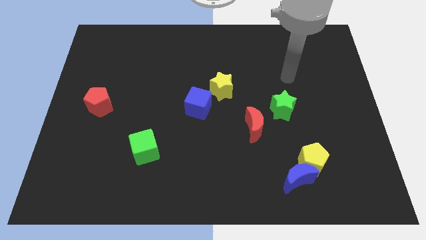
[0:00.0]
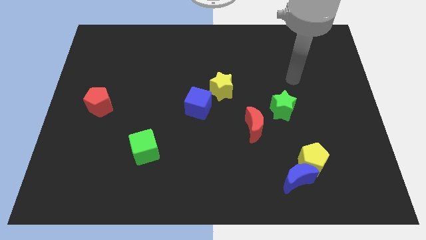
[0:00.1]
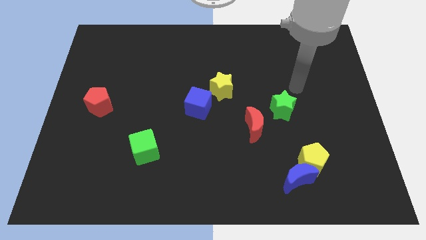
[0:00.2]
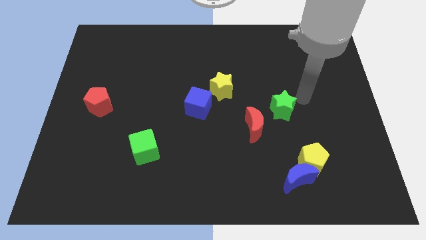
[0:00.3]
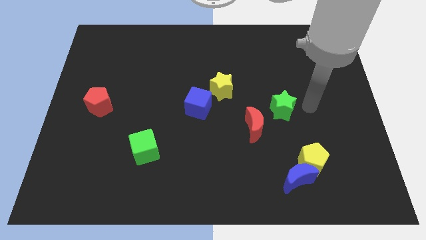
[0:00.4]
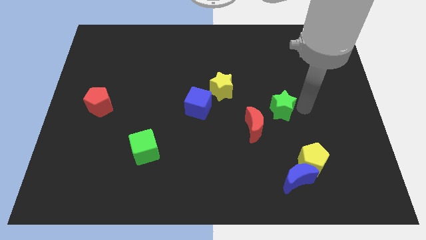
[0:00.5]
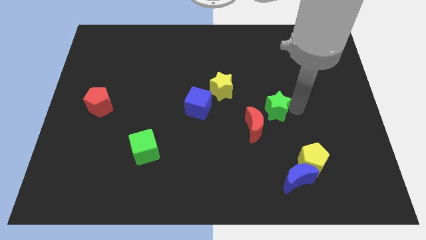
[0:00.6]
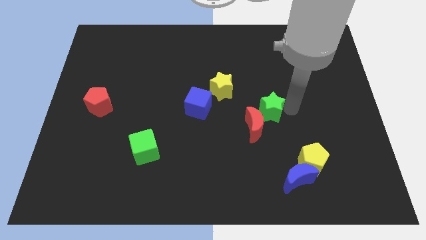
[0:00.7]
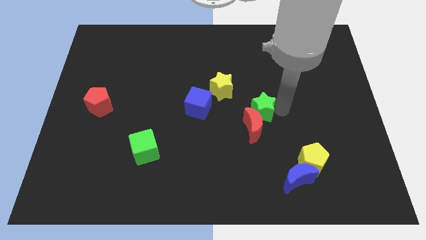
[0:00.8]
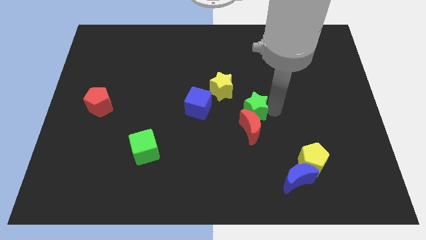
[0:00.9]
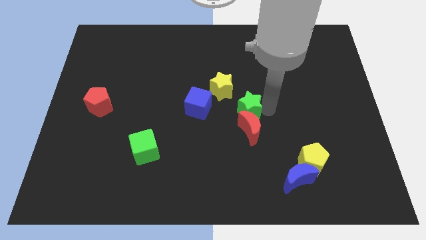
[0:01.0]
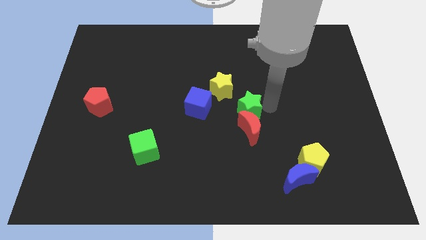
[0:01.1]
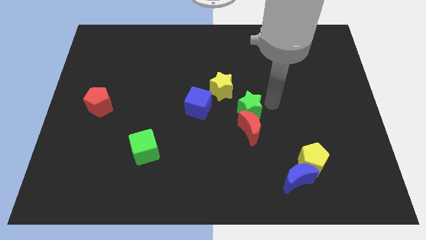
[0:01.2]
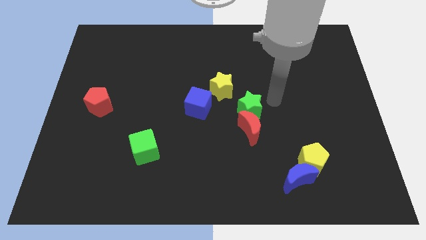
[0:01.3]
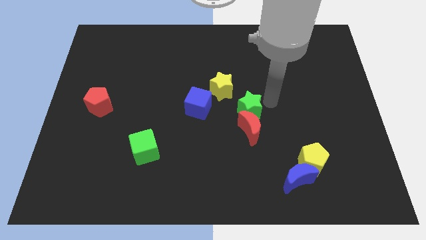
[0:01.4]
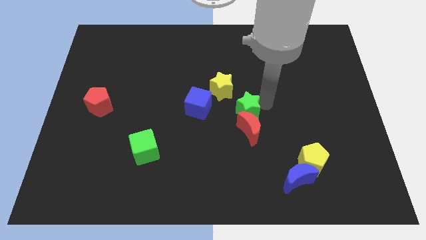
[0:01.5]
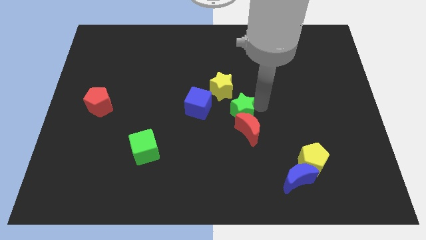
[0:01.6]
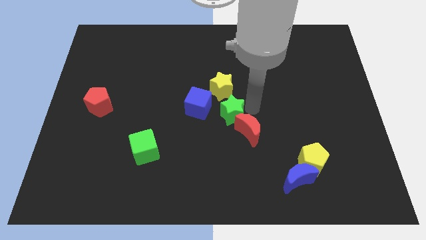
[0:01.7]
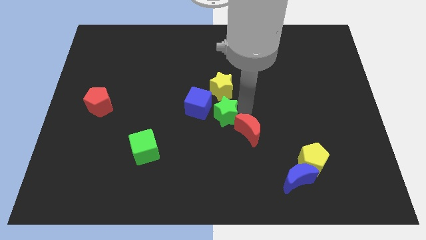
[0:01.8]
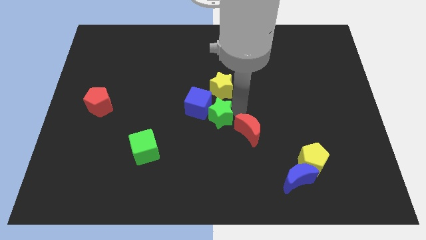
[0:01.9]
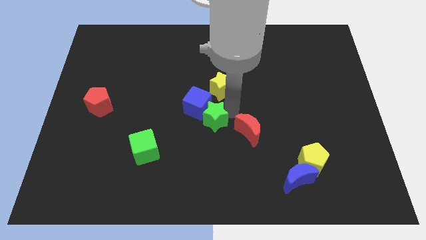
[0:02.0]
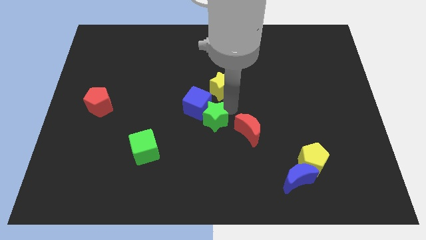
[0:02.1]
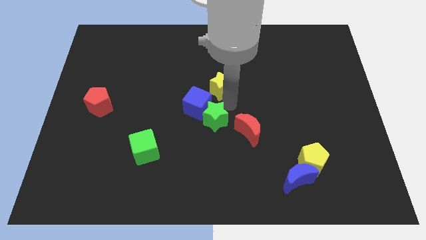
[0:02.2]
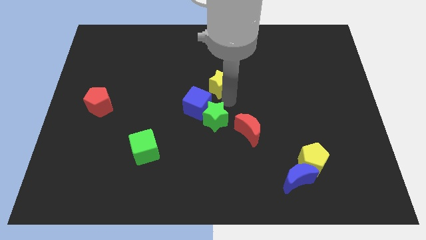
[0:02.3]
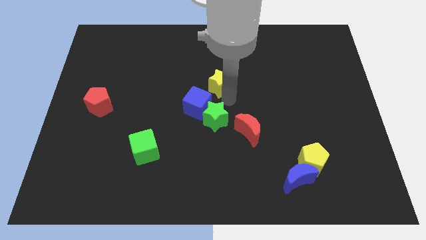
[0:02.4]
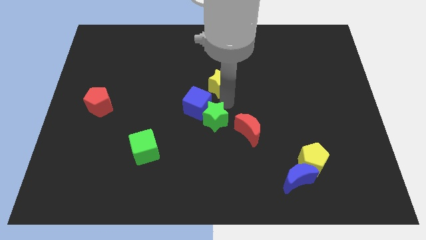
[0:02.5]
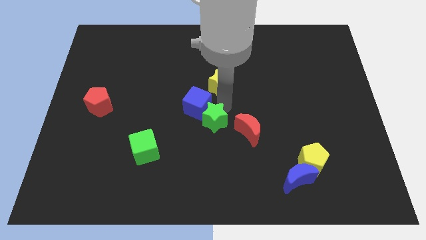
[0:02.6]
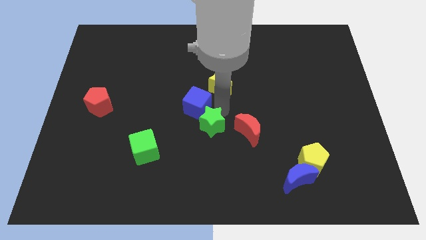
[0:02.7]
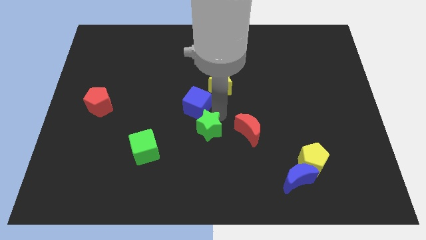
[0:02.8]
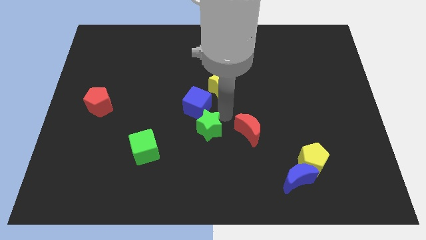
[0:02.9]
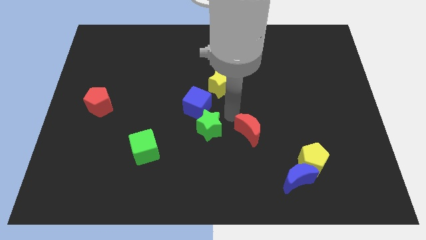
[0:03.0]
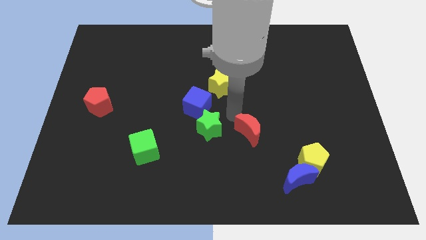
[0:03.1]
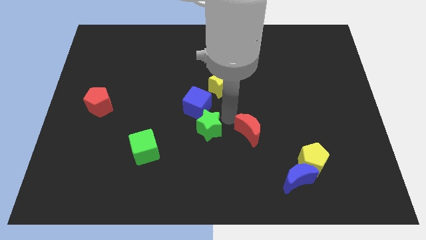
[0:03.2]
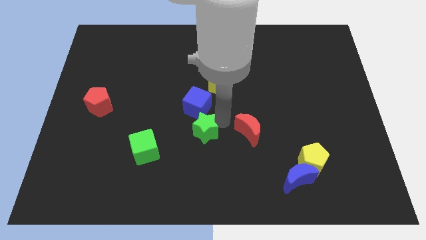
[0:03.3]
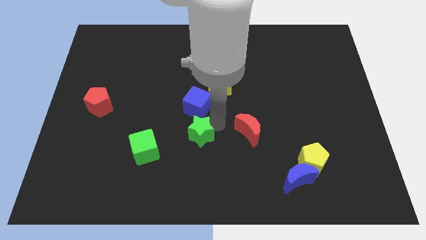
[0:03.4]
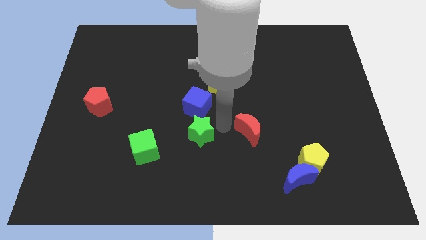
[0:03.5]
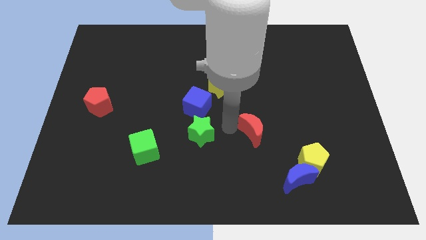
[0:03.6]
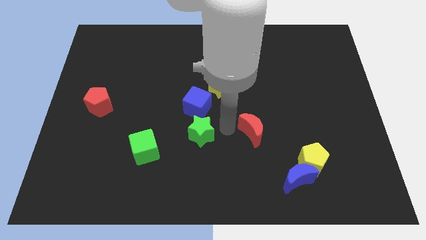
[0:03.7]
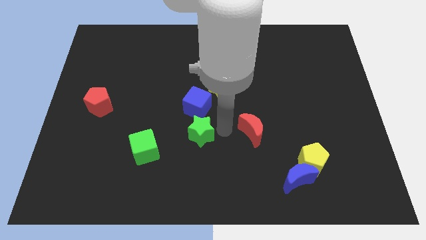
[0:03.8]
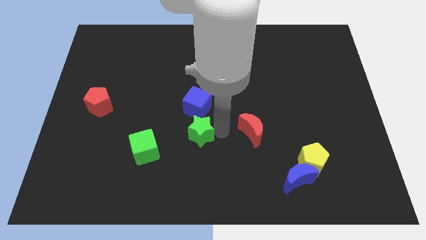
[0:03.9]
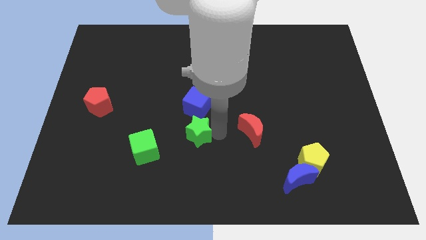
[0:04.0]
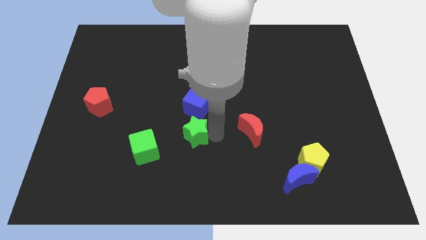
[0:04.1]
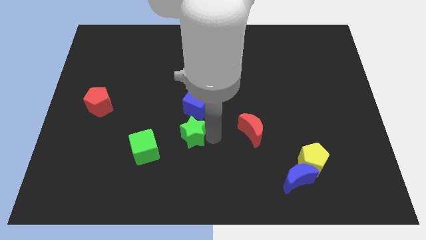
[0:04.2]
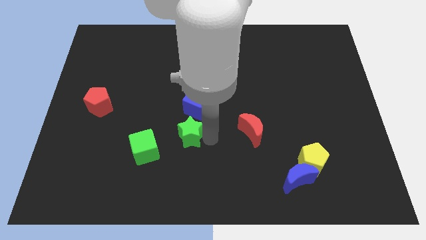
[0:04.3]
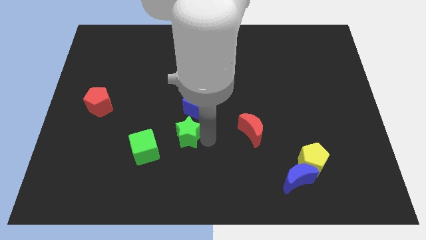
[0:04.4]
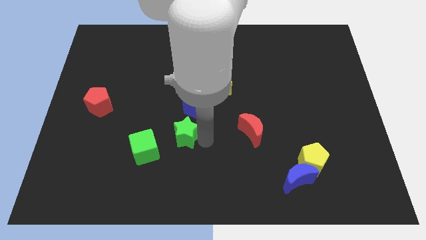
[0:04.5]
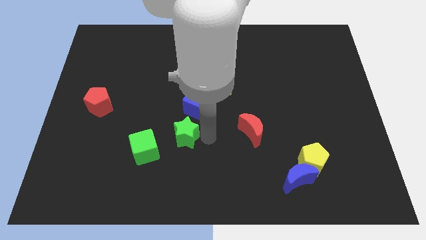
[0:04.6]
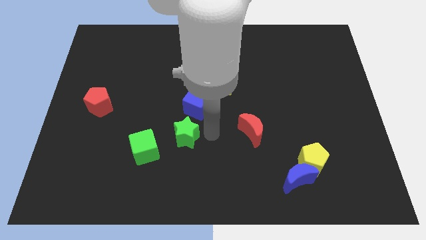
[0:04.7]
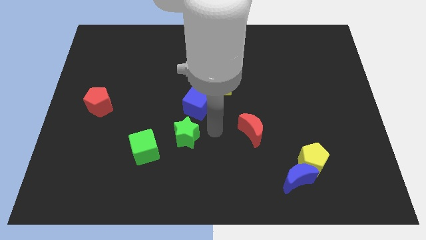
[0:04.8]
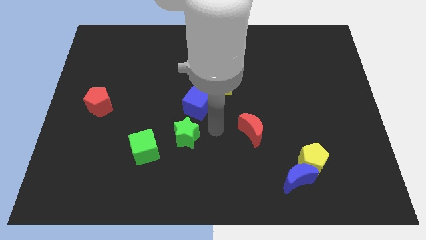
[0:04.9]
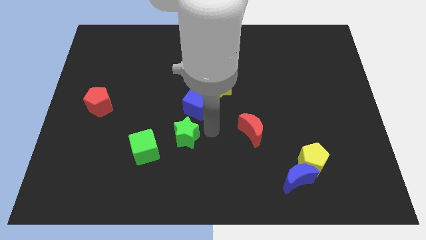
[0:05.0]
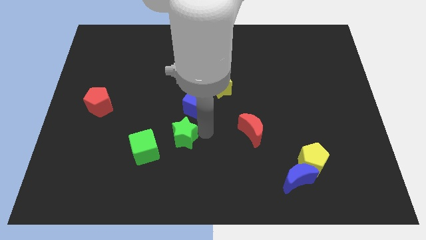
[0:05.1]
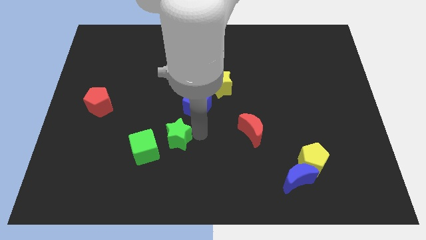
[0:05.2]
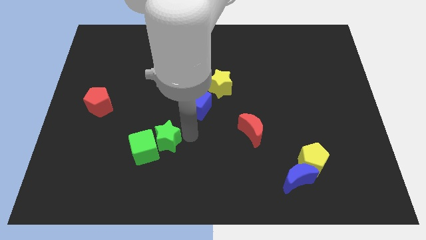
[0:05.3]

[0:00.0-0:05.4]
push the green star next to the green cube

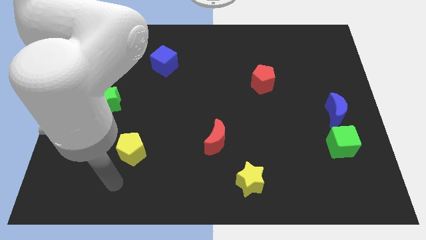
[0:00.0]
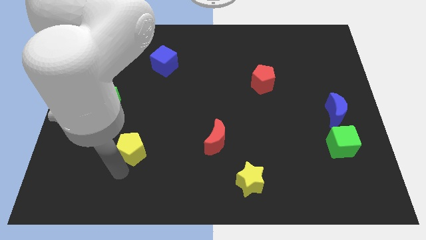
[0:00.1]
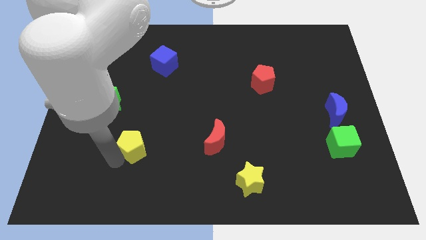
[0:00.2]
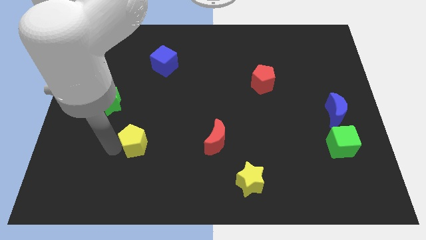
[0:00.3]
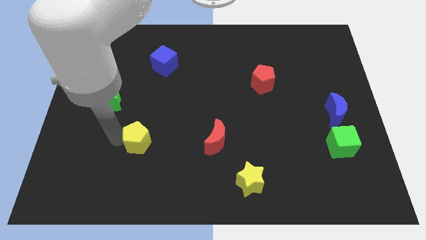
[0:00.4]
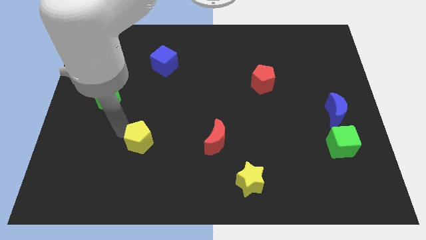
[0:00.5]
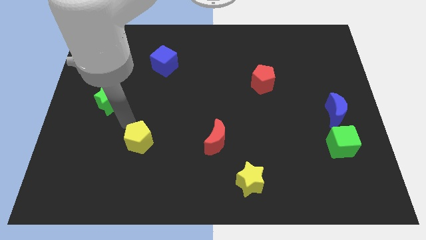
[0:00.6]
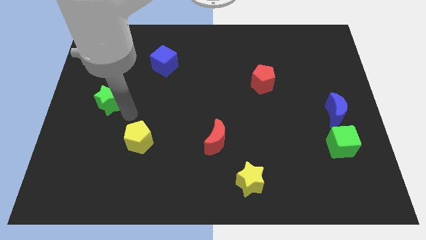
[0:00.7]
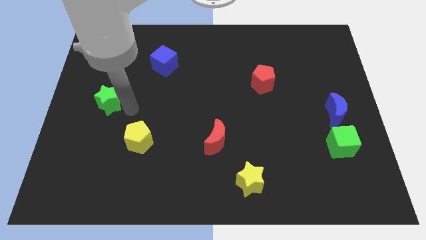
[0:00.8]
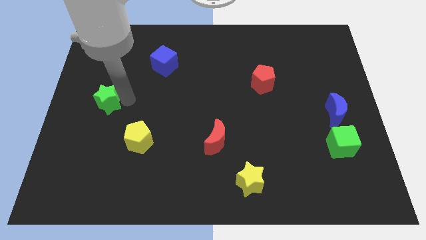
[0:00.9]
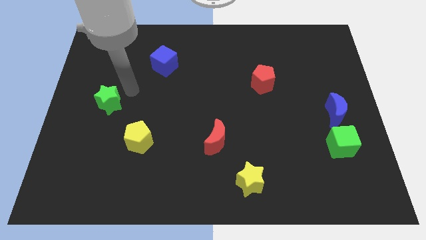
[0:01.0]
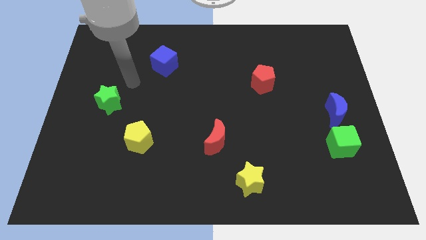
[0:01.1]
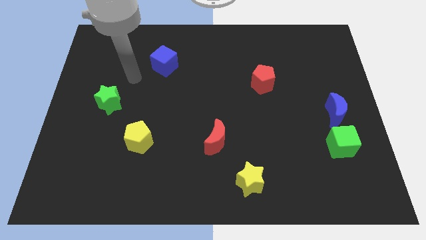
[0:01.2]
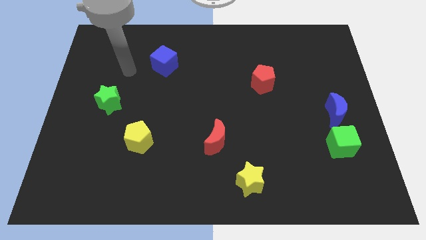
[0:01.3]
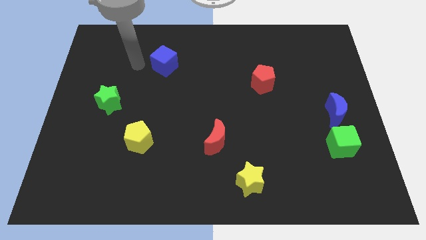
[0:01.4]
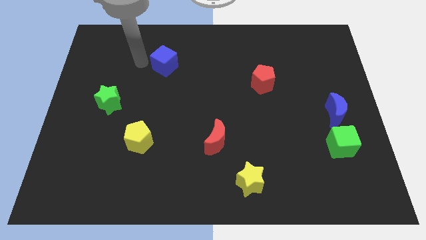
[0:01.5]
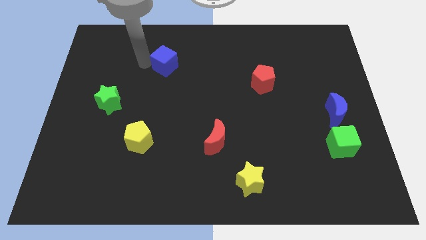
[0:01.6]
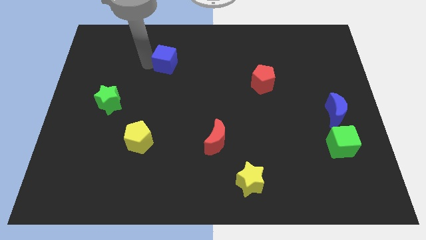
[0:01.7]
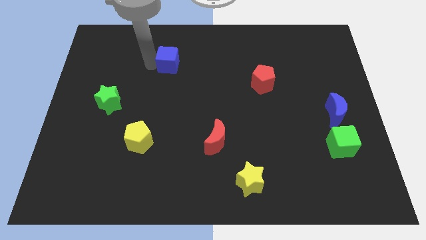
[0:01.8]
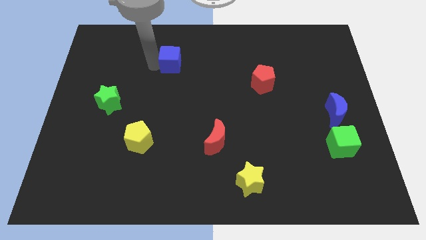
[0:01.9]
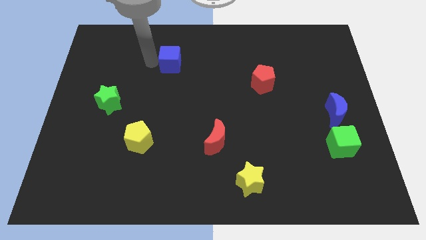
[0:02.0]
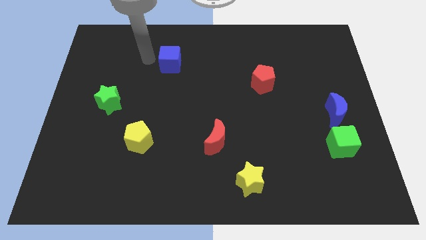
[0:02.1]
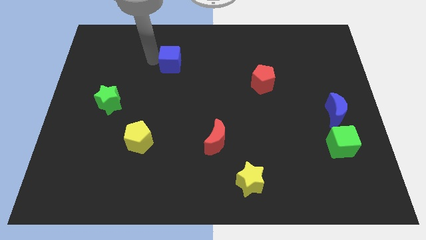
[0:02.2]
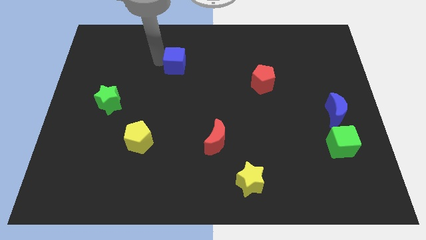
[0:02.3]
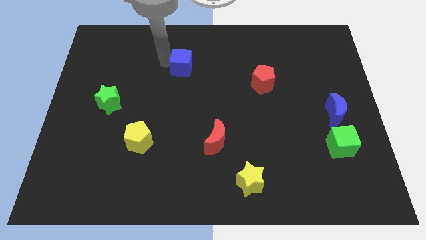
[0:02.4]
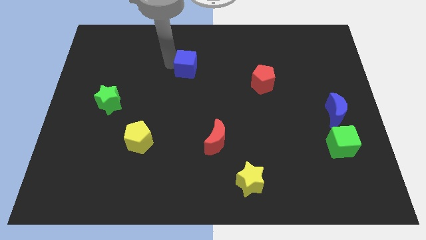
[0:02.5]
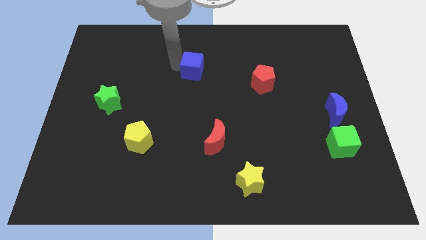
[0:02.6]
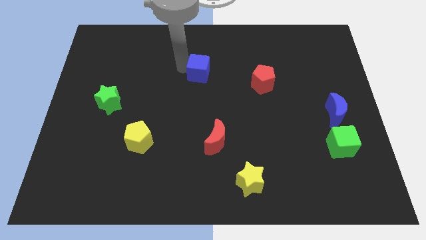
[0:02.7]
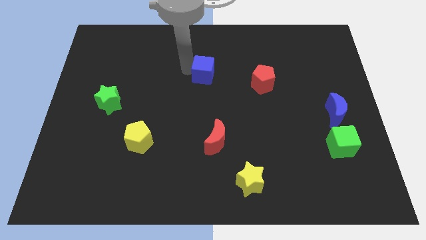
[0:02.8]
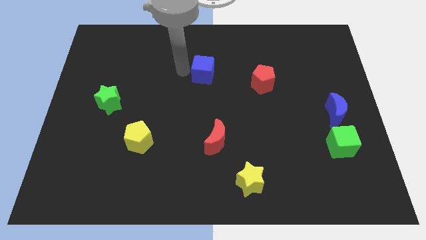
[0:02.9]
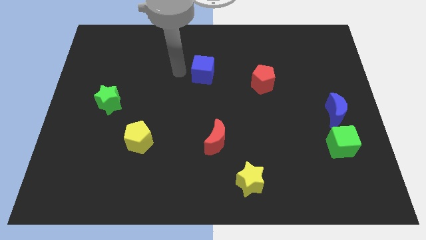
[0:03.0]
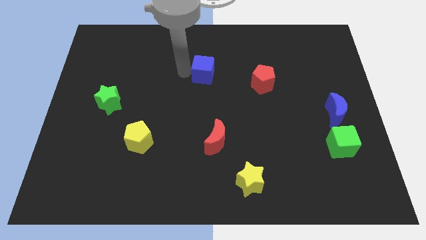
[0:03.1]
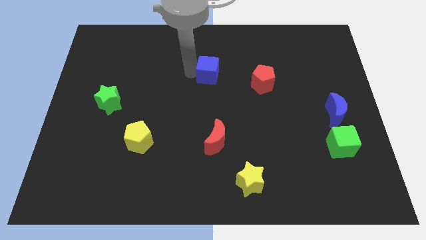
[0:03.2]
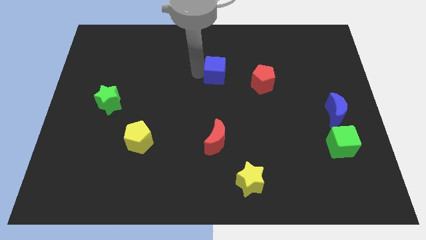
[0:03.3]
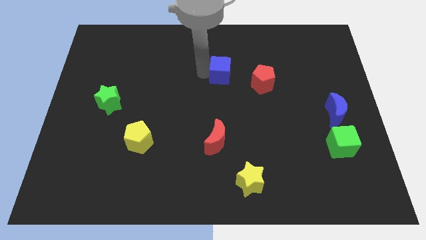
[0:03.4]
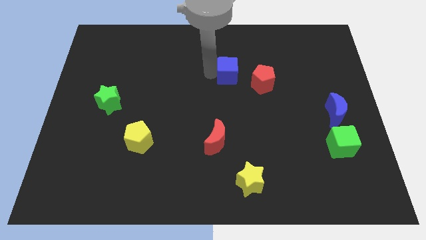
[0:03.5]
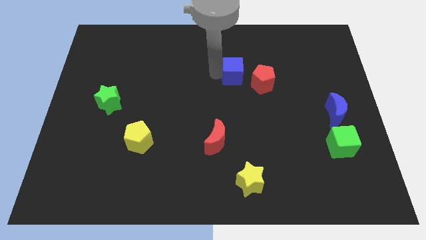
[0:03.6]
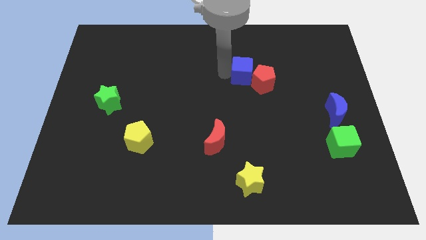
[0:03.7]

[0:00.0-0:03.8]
push the blue cube towards the red pentagon
